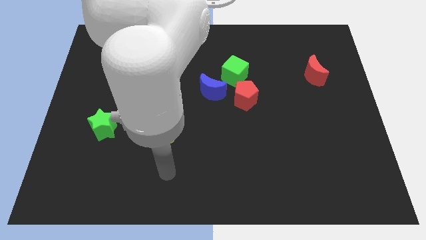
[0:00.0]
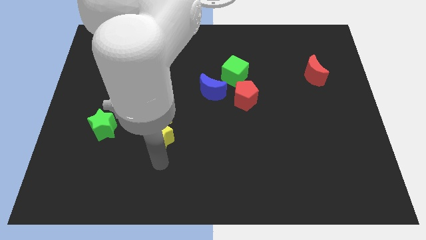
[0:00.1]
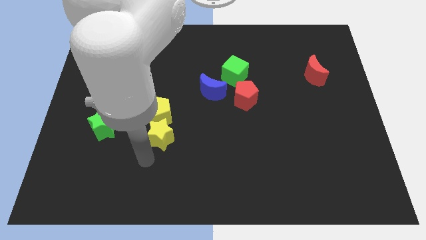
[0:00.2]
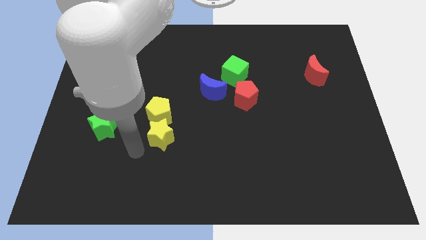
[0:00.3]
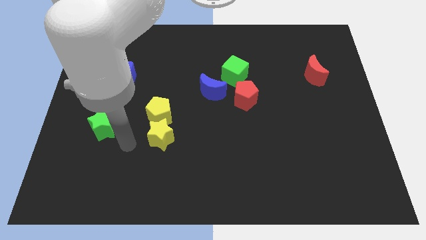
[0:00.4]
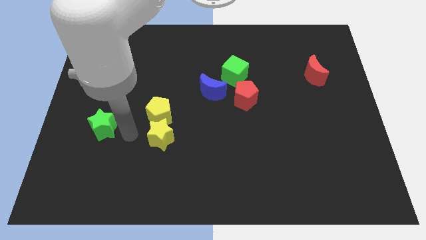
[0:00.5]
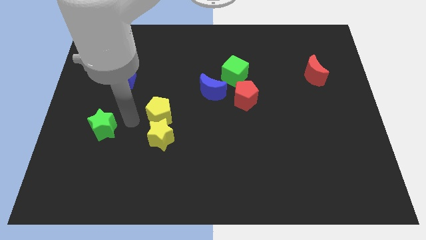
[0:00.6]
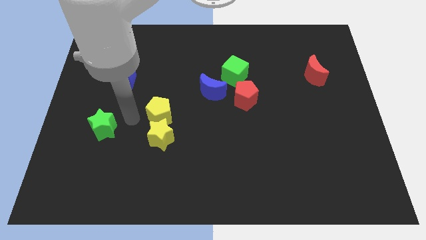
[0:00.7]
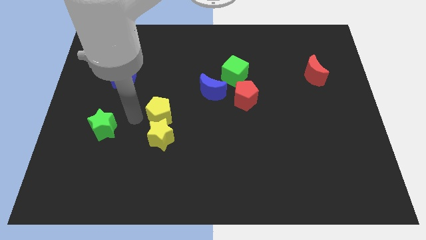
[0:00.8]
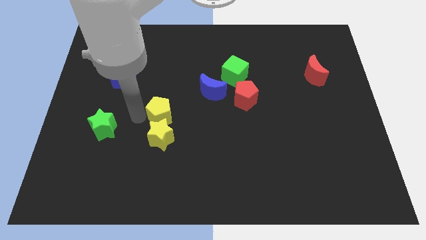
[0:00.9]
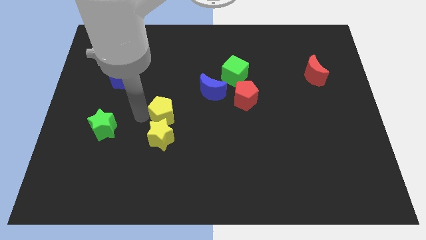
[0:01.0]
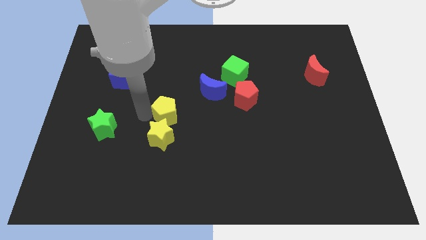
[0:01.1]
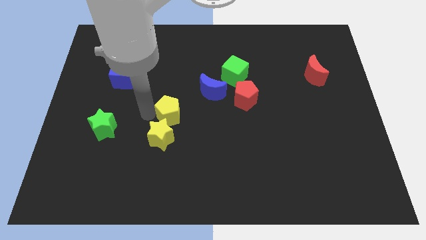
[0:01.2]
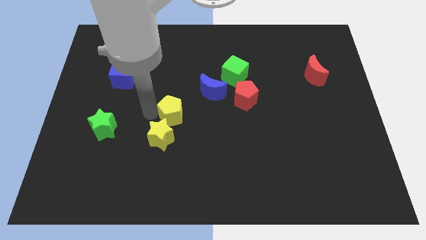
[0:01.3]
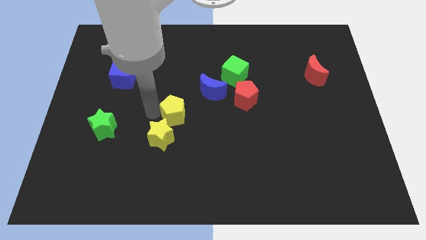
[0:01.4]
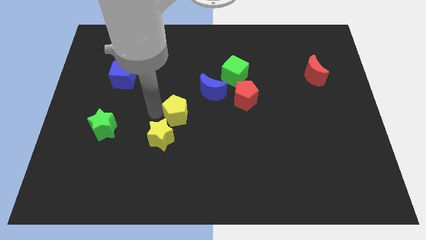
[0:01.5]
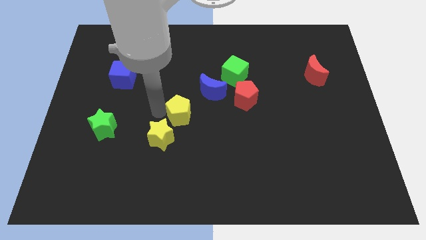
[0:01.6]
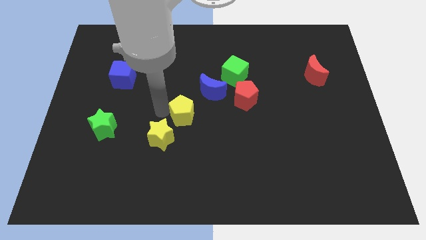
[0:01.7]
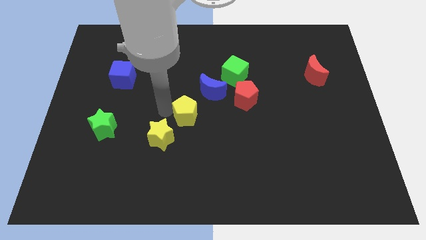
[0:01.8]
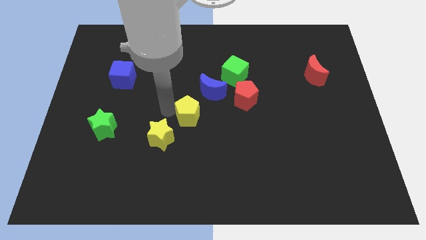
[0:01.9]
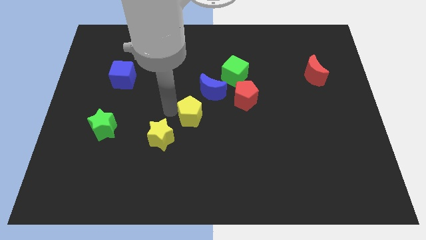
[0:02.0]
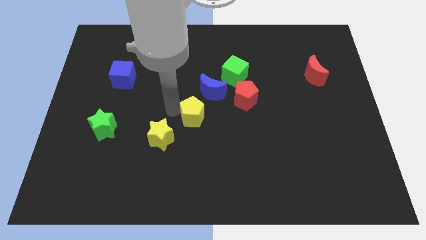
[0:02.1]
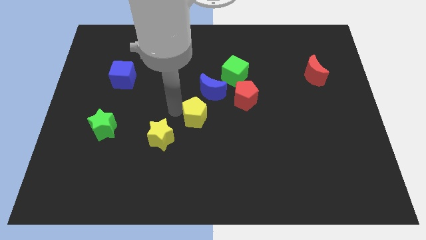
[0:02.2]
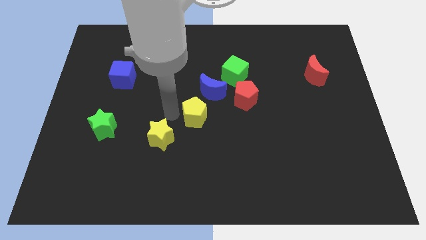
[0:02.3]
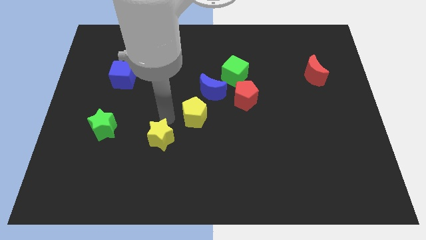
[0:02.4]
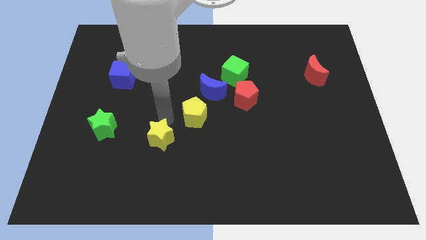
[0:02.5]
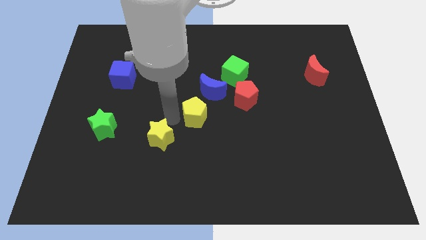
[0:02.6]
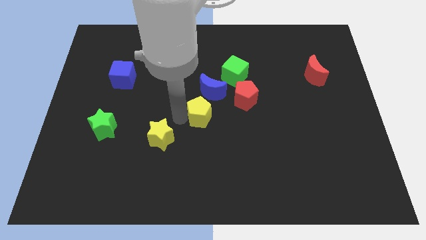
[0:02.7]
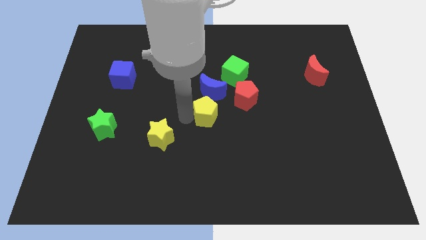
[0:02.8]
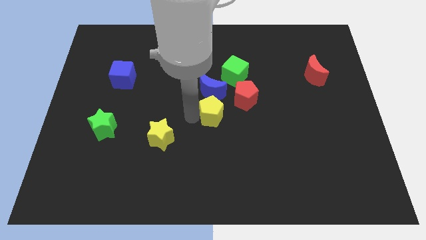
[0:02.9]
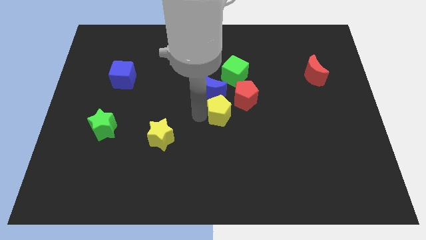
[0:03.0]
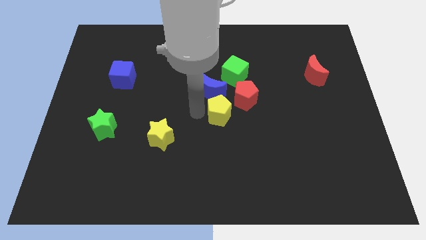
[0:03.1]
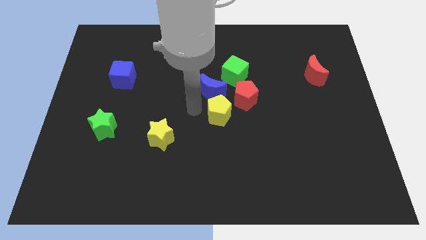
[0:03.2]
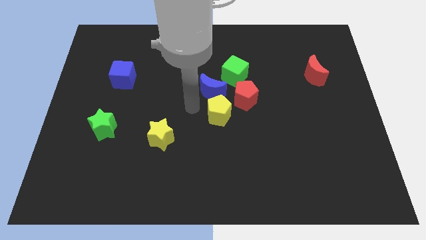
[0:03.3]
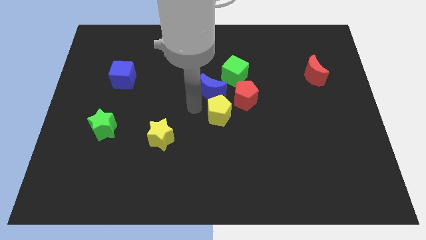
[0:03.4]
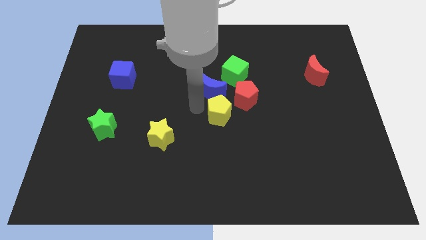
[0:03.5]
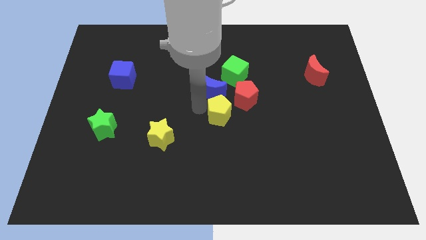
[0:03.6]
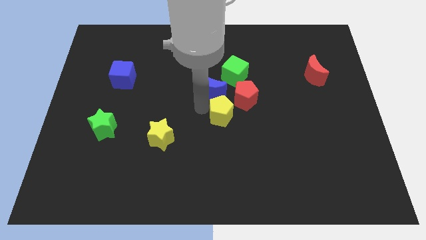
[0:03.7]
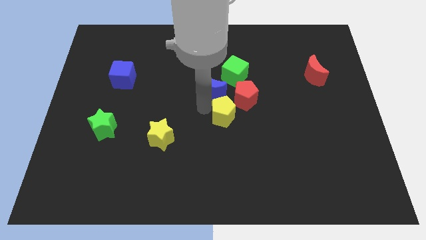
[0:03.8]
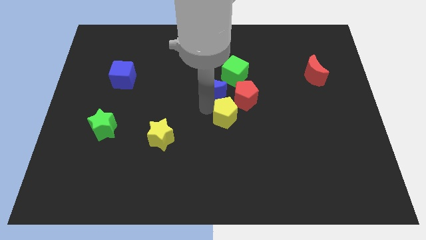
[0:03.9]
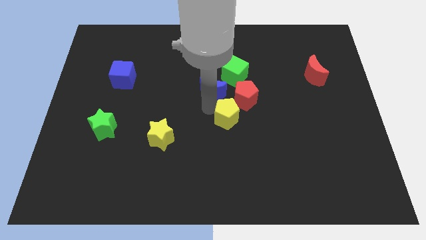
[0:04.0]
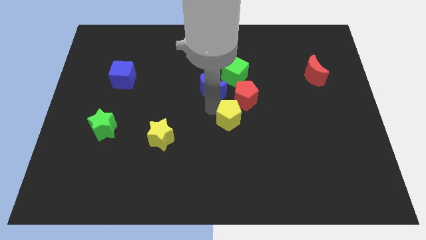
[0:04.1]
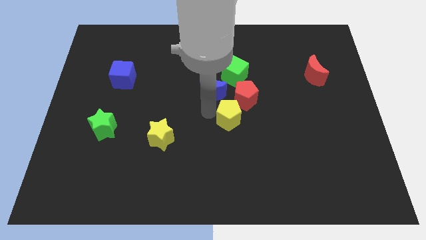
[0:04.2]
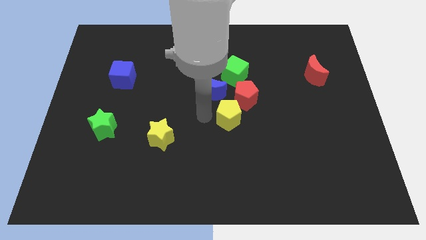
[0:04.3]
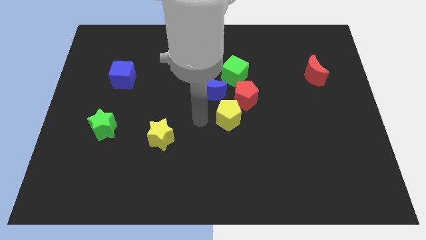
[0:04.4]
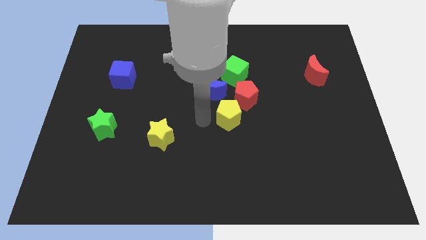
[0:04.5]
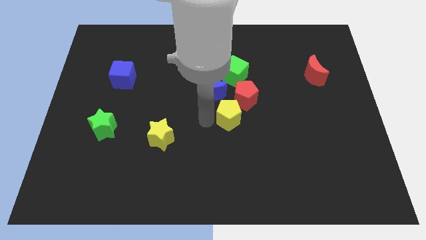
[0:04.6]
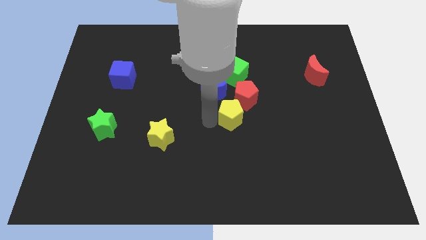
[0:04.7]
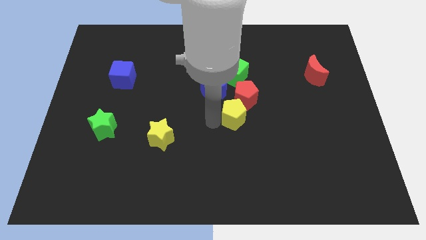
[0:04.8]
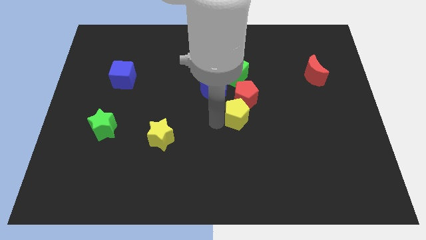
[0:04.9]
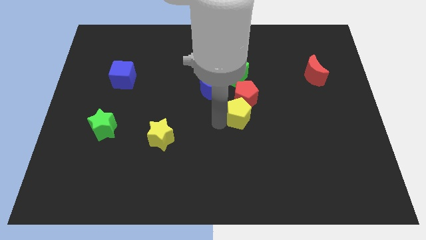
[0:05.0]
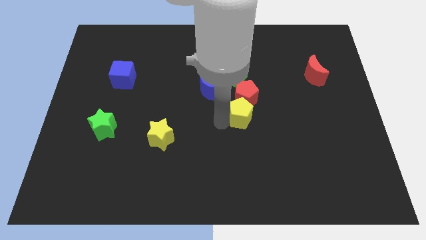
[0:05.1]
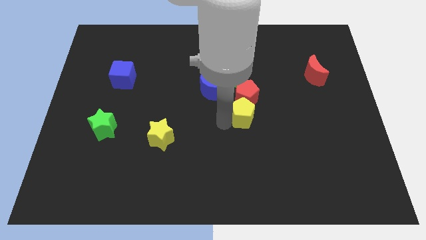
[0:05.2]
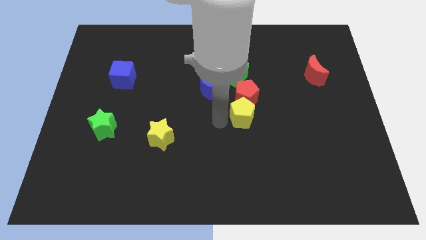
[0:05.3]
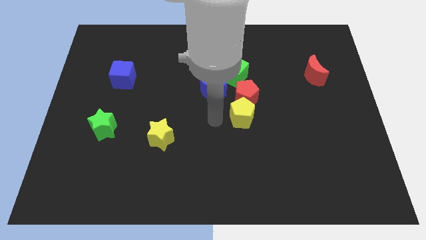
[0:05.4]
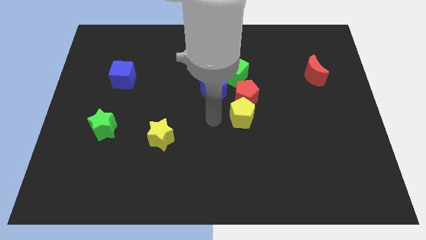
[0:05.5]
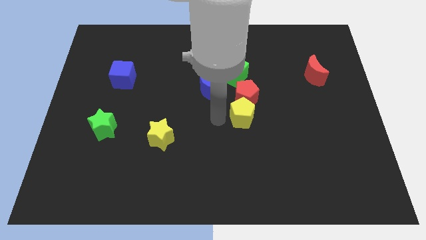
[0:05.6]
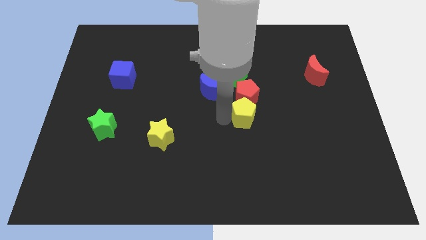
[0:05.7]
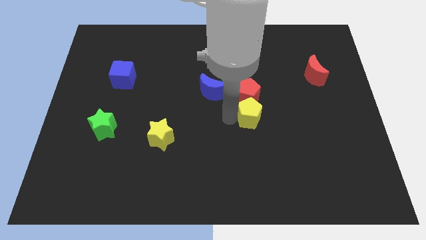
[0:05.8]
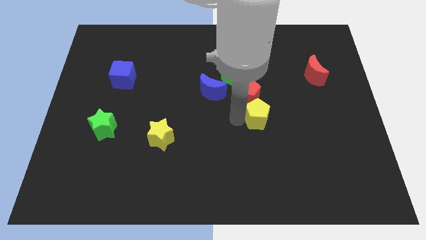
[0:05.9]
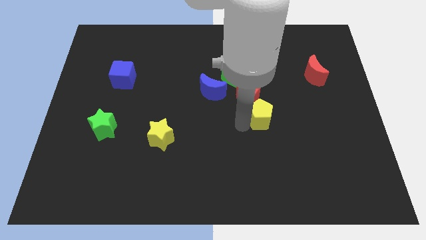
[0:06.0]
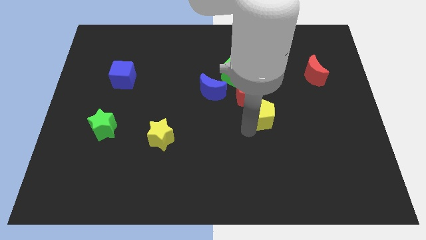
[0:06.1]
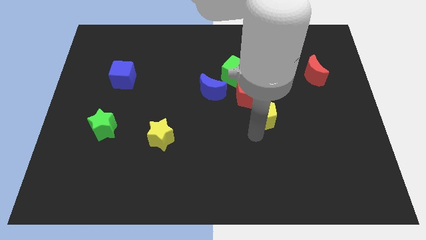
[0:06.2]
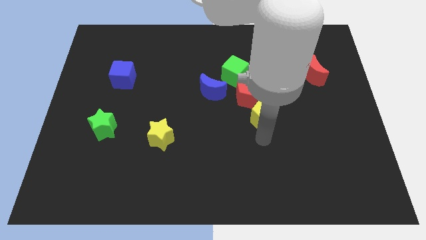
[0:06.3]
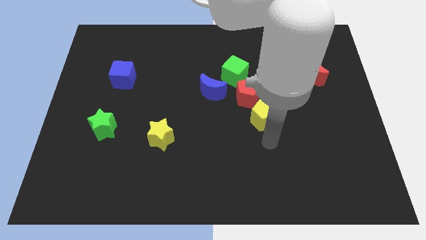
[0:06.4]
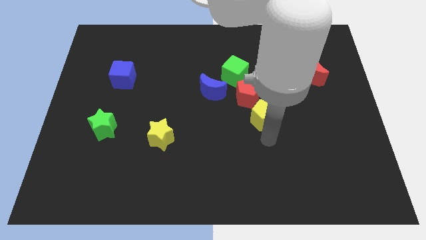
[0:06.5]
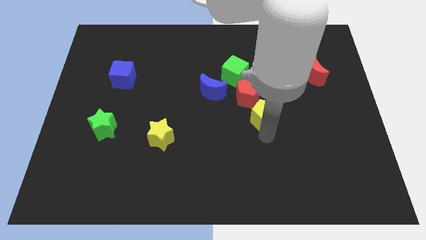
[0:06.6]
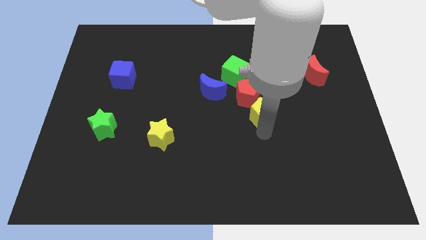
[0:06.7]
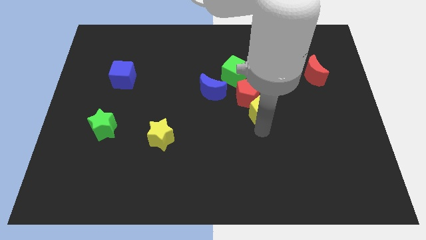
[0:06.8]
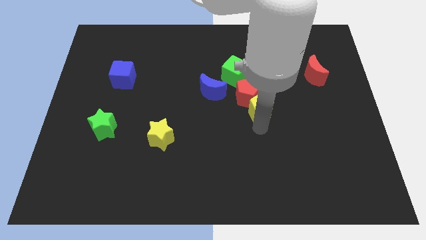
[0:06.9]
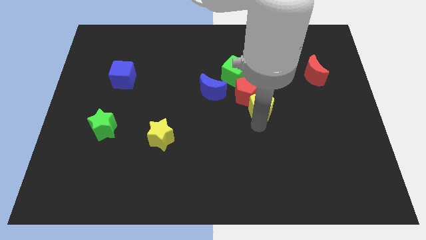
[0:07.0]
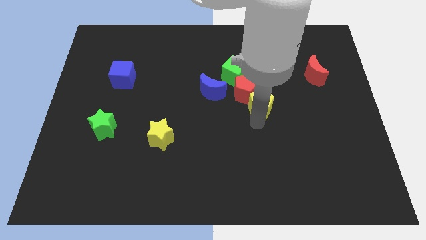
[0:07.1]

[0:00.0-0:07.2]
slide the yellow pentagon to the right of the blue moon

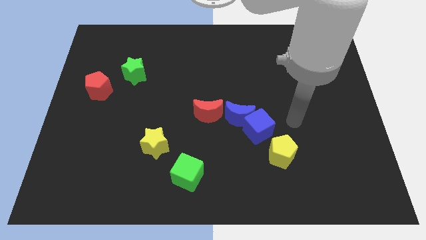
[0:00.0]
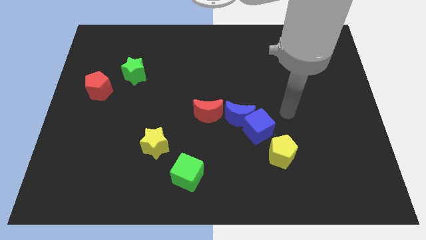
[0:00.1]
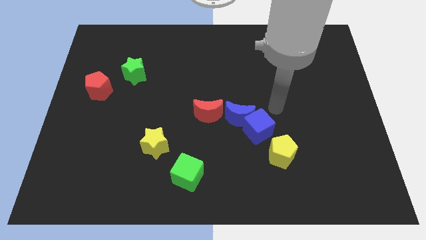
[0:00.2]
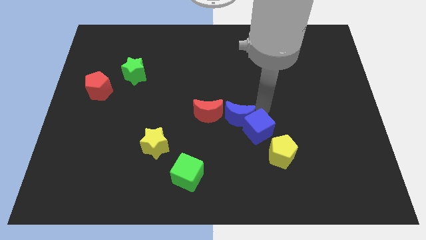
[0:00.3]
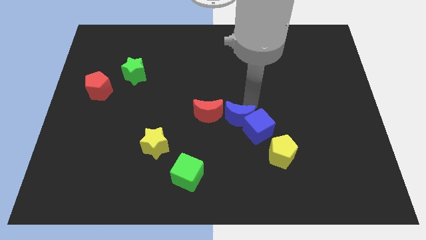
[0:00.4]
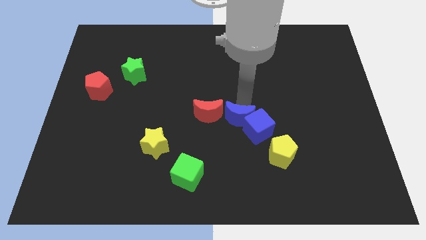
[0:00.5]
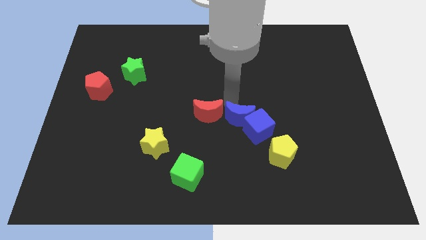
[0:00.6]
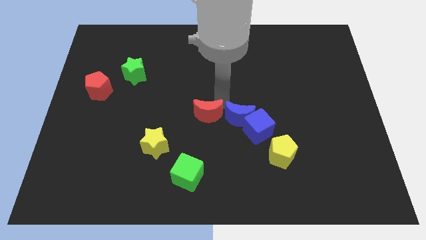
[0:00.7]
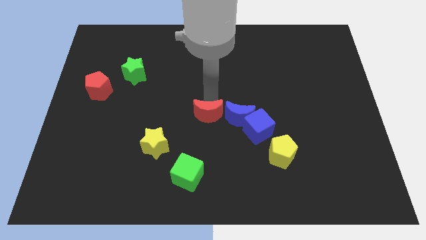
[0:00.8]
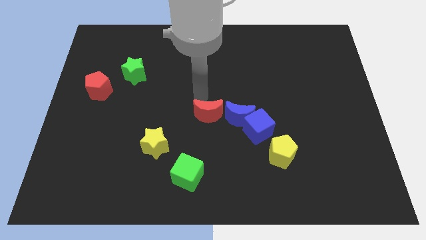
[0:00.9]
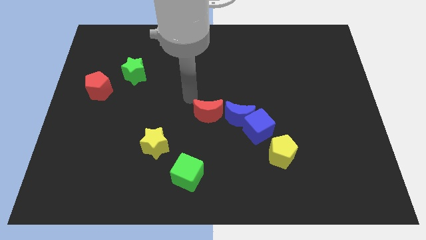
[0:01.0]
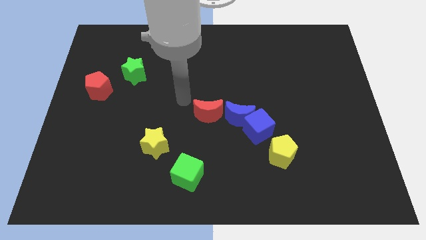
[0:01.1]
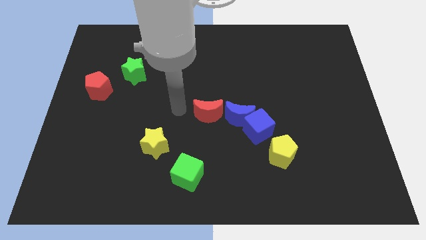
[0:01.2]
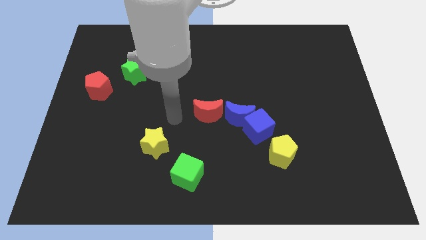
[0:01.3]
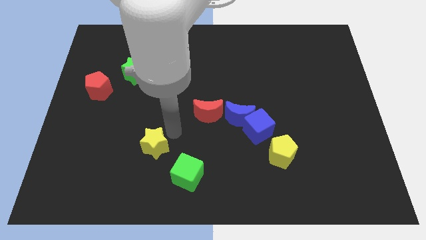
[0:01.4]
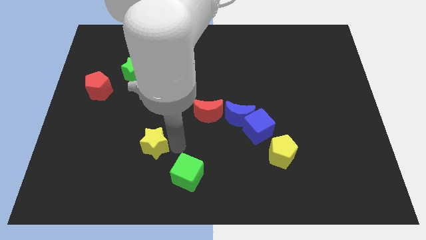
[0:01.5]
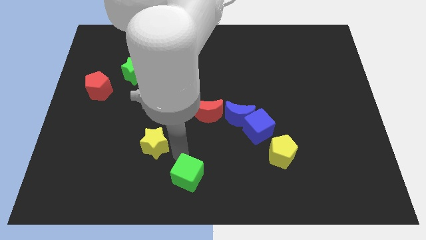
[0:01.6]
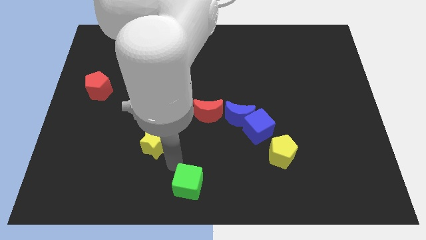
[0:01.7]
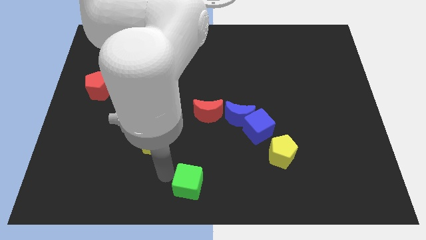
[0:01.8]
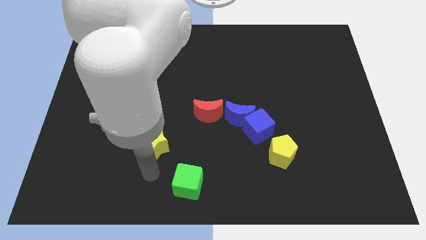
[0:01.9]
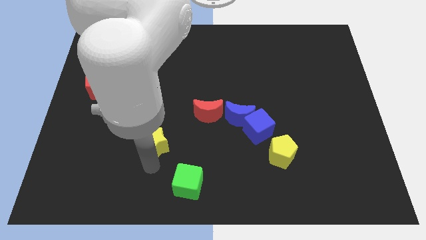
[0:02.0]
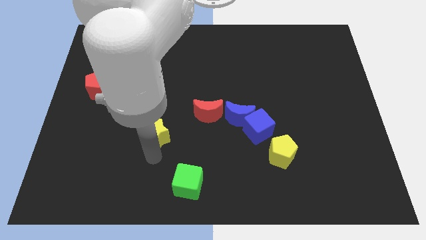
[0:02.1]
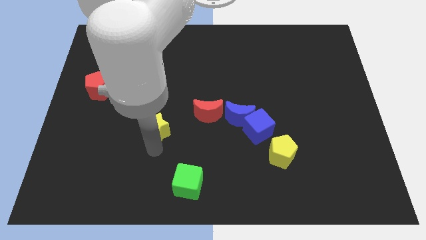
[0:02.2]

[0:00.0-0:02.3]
slide the yellow star just left of the red moon
